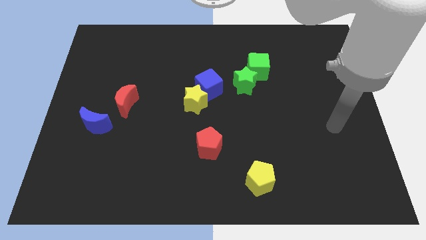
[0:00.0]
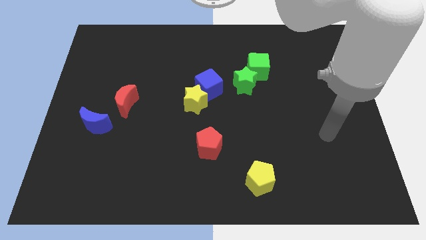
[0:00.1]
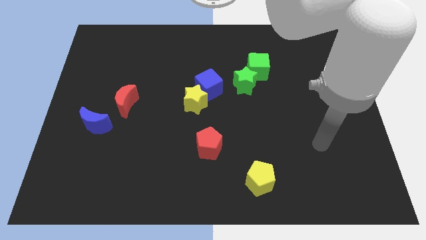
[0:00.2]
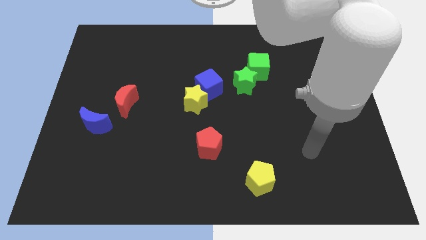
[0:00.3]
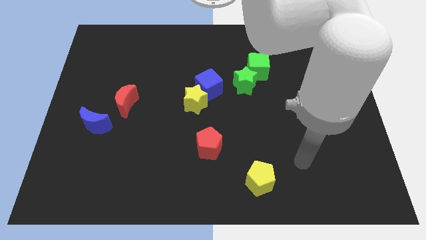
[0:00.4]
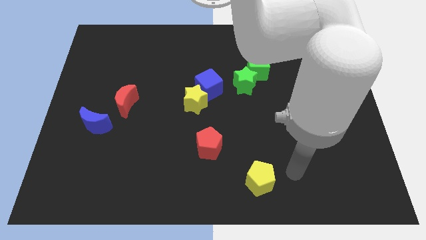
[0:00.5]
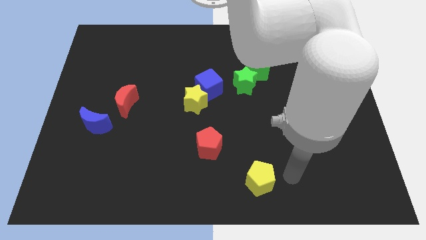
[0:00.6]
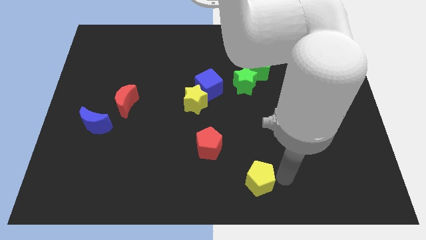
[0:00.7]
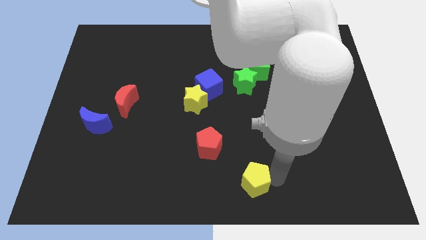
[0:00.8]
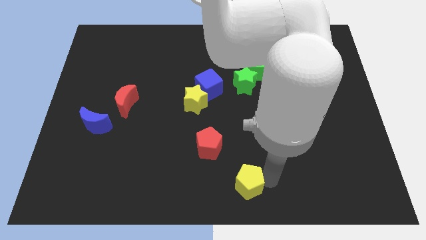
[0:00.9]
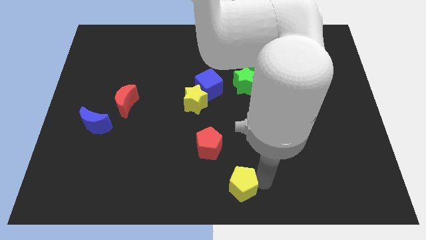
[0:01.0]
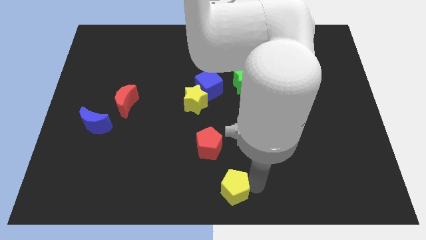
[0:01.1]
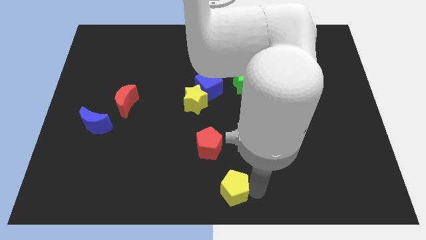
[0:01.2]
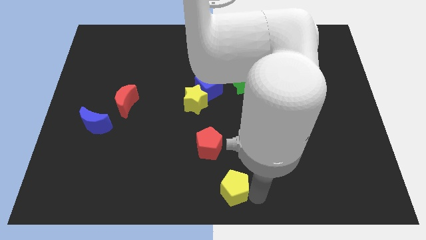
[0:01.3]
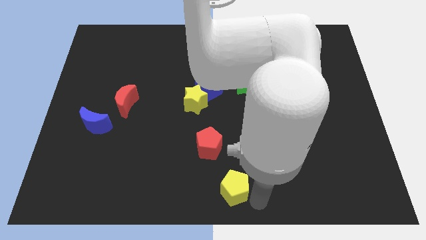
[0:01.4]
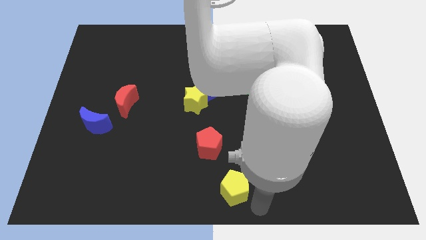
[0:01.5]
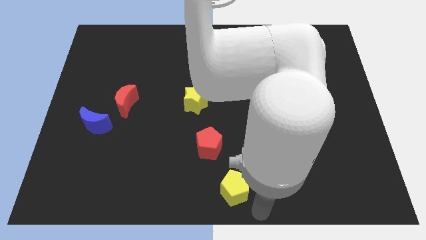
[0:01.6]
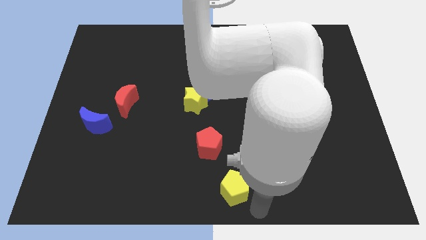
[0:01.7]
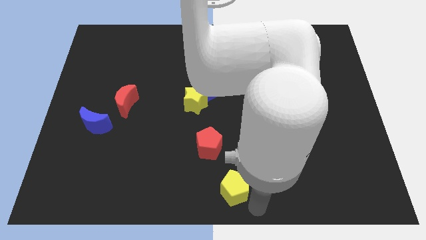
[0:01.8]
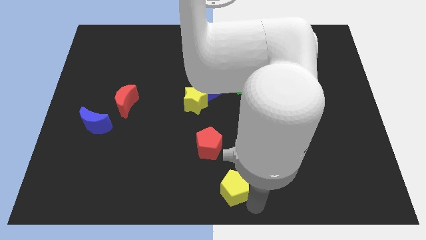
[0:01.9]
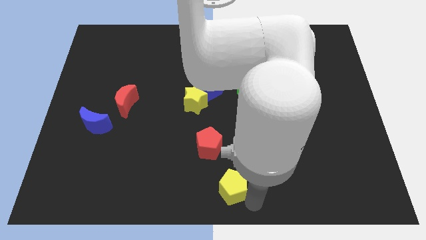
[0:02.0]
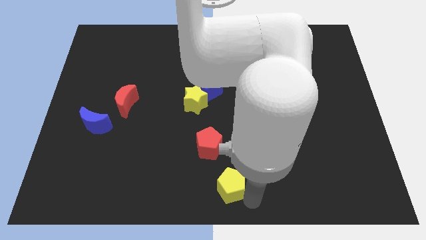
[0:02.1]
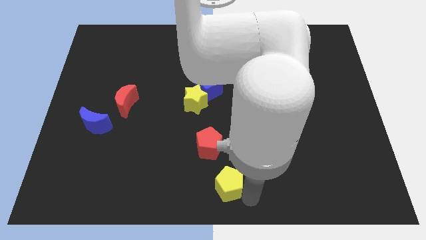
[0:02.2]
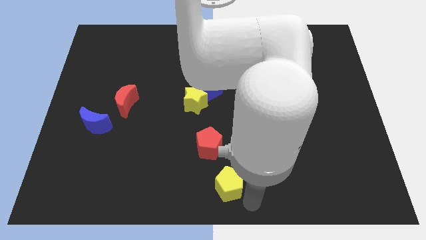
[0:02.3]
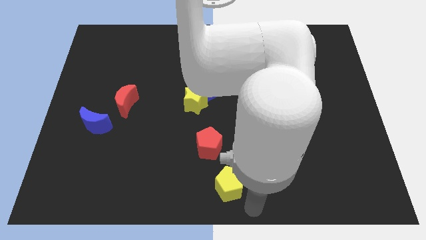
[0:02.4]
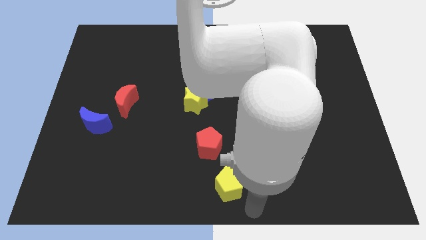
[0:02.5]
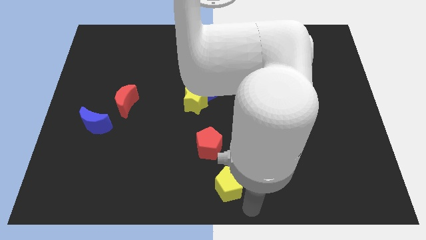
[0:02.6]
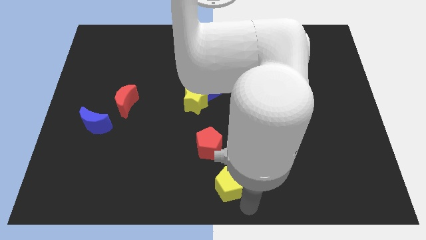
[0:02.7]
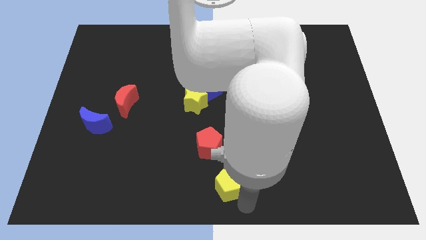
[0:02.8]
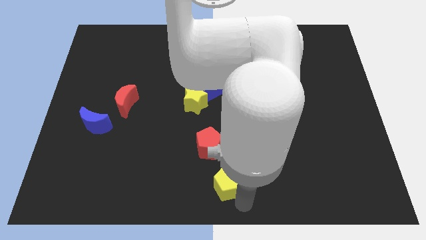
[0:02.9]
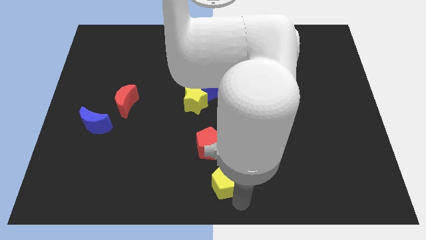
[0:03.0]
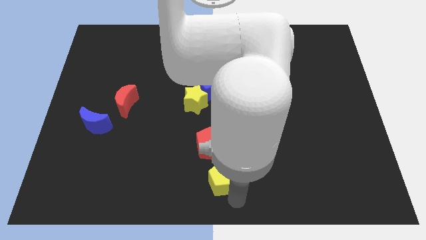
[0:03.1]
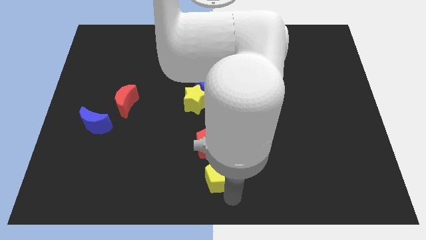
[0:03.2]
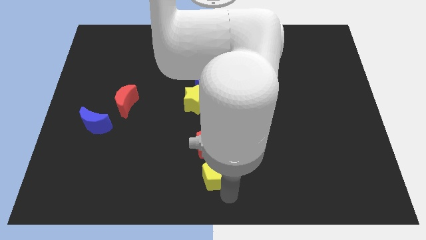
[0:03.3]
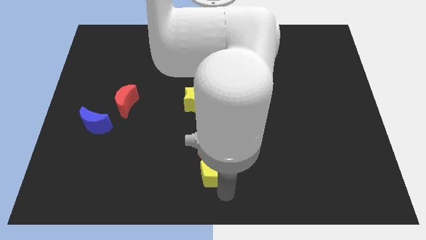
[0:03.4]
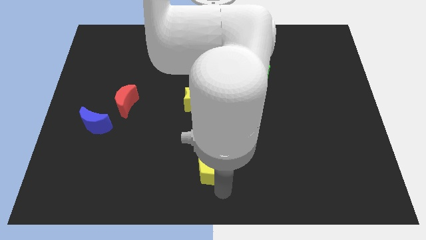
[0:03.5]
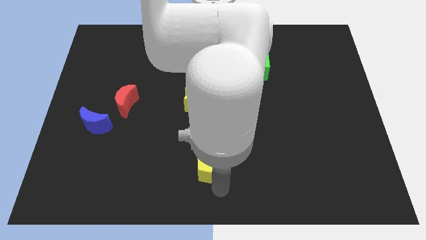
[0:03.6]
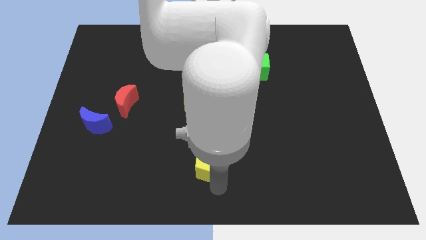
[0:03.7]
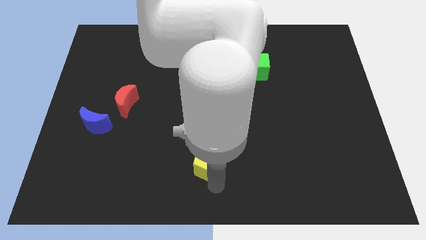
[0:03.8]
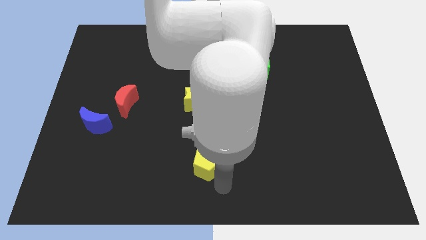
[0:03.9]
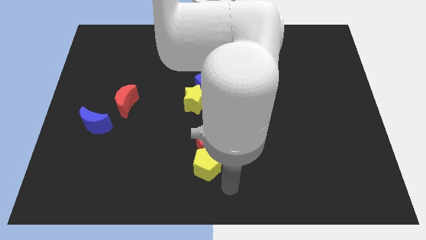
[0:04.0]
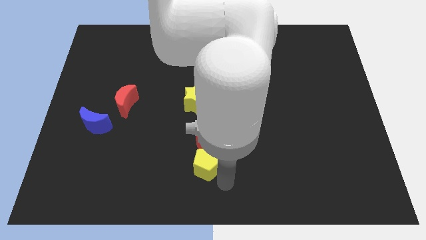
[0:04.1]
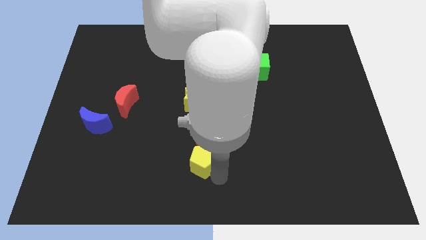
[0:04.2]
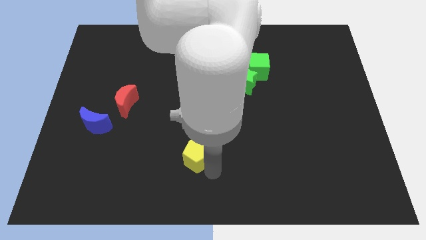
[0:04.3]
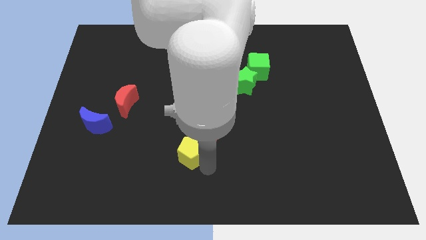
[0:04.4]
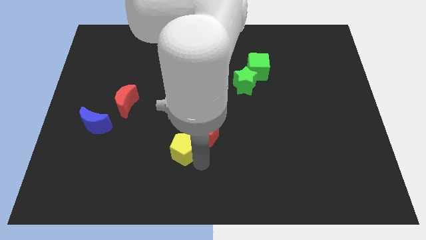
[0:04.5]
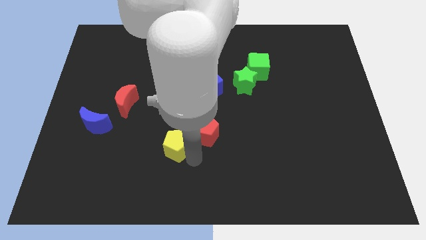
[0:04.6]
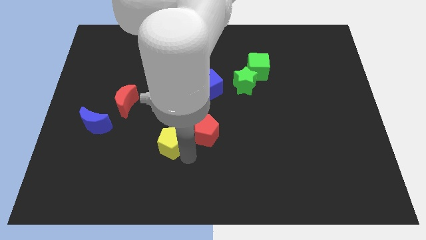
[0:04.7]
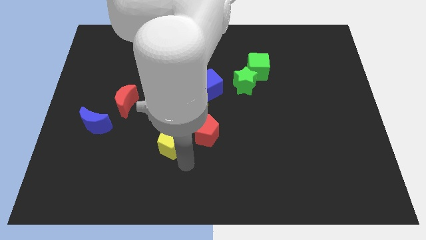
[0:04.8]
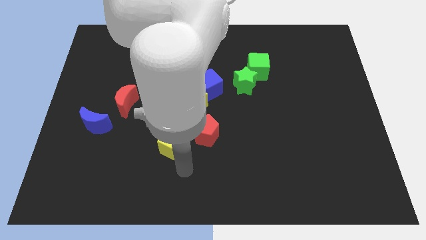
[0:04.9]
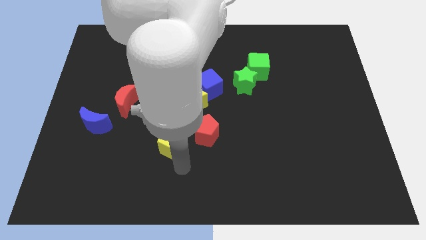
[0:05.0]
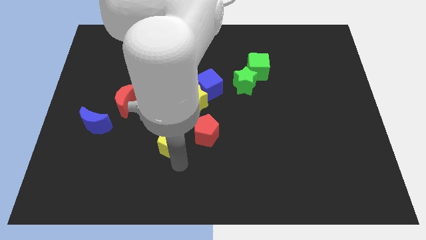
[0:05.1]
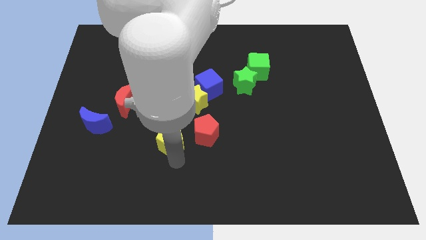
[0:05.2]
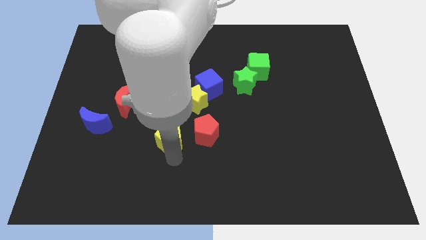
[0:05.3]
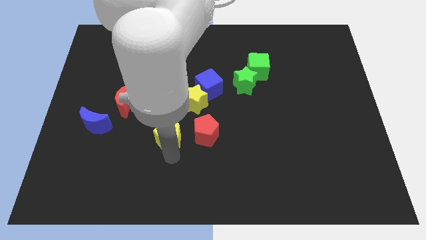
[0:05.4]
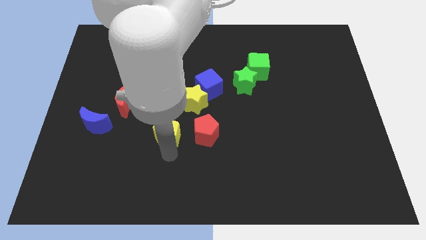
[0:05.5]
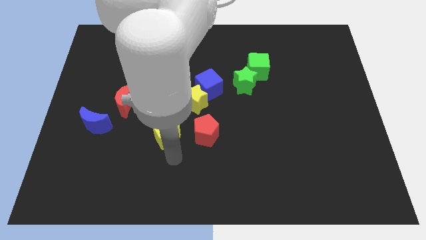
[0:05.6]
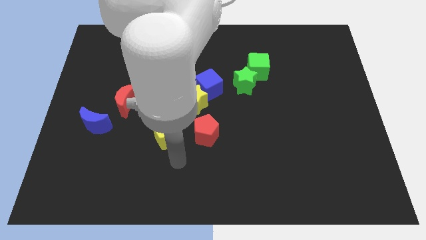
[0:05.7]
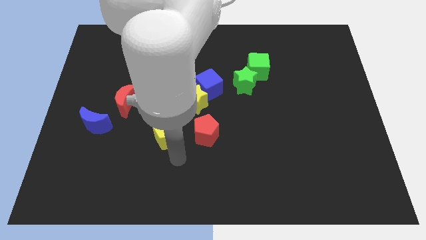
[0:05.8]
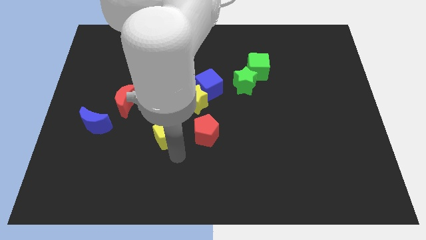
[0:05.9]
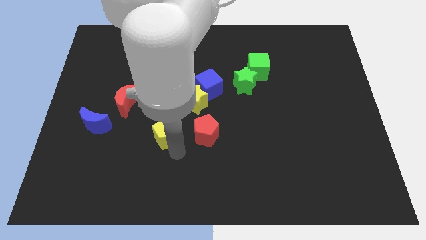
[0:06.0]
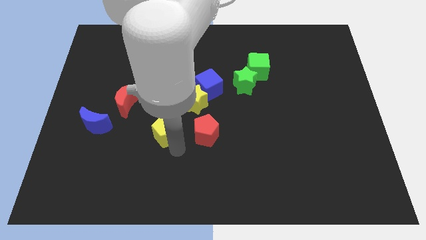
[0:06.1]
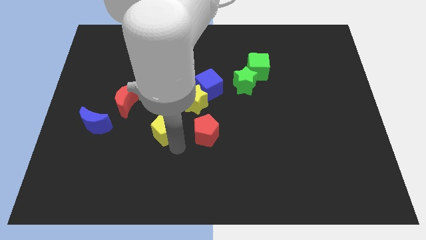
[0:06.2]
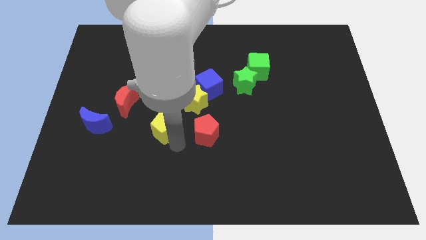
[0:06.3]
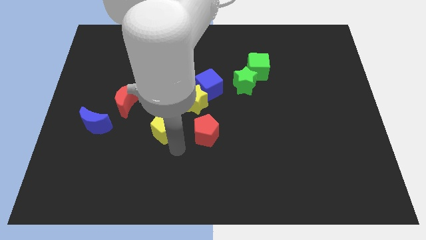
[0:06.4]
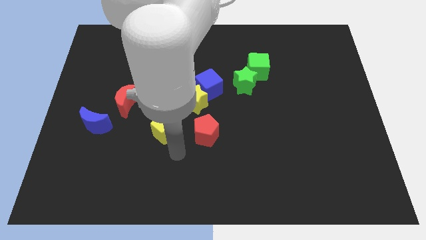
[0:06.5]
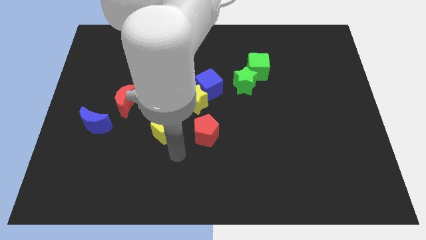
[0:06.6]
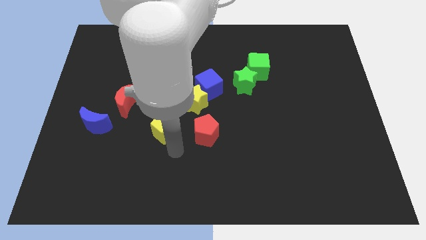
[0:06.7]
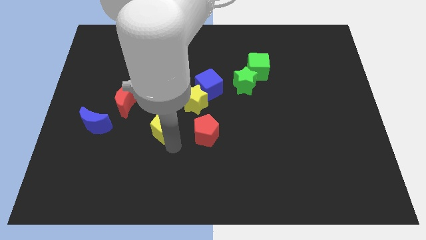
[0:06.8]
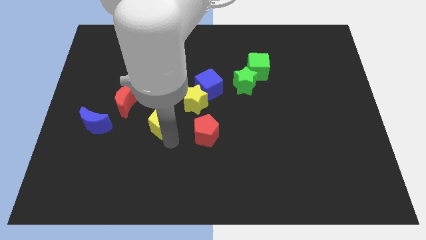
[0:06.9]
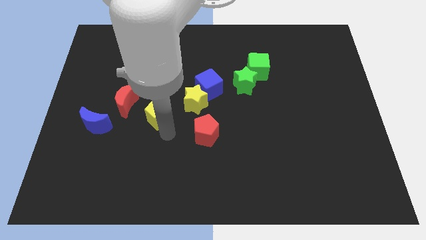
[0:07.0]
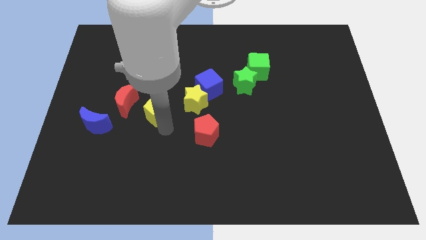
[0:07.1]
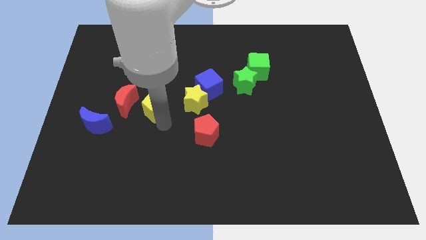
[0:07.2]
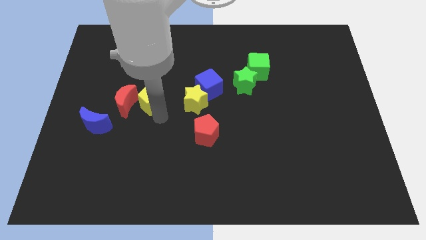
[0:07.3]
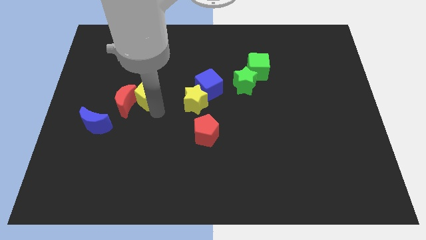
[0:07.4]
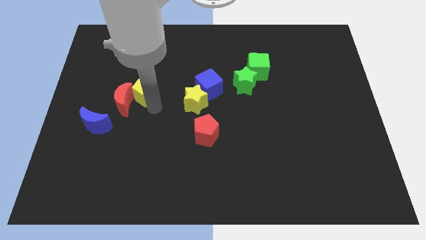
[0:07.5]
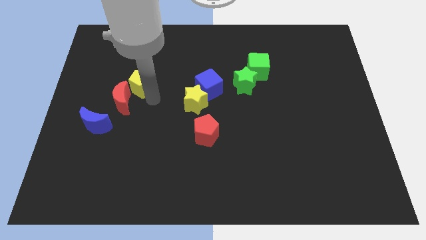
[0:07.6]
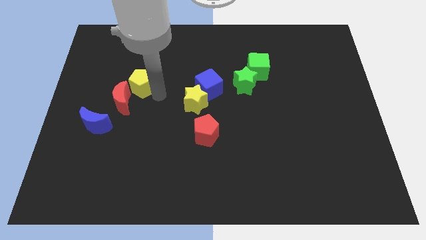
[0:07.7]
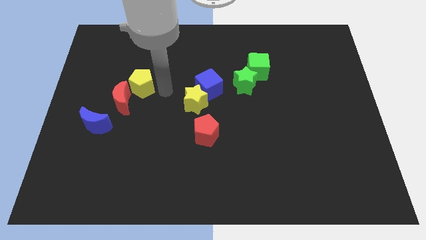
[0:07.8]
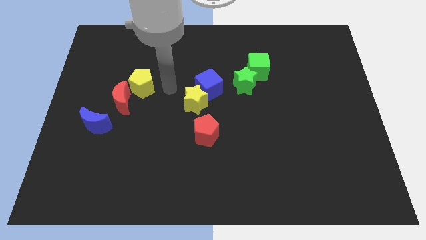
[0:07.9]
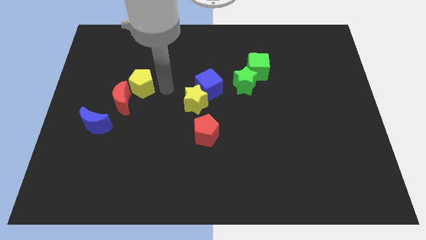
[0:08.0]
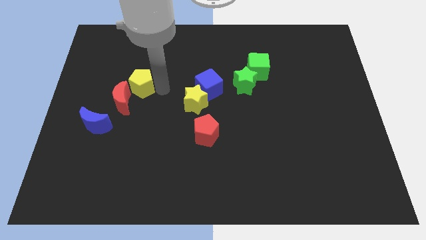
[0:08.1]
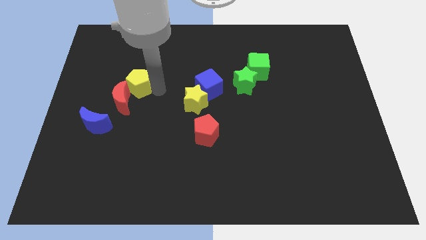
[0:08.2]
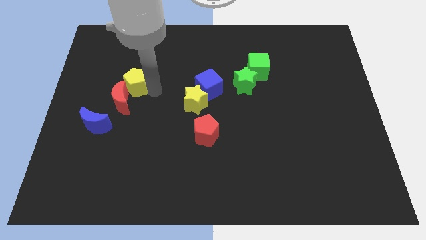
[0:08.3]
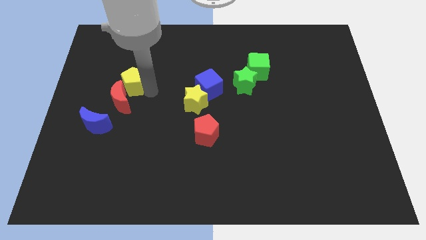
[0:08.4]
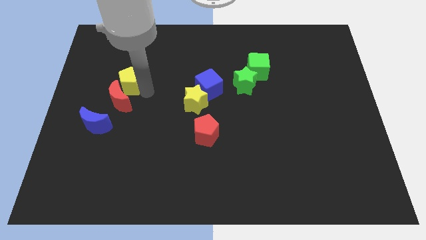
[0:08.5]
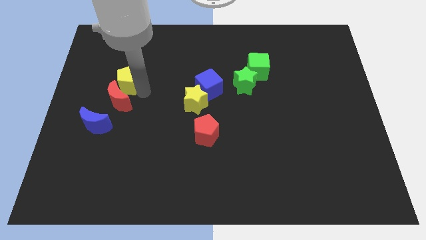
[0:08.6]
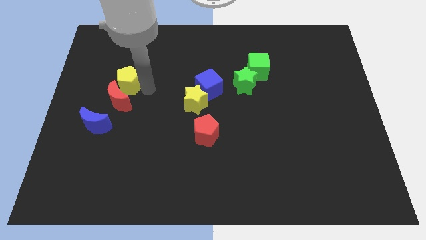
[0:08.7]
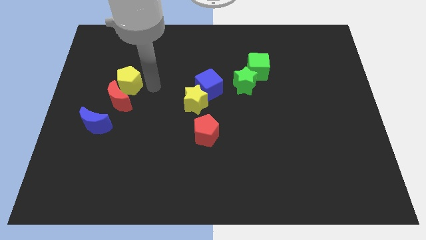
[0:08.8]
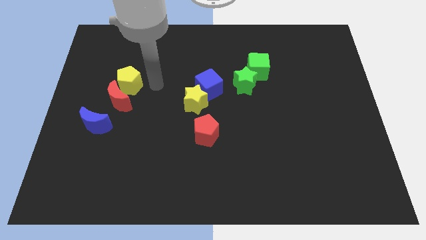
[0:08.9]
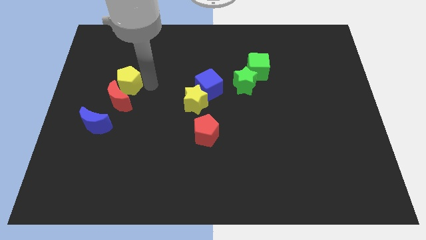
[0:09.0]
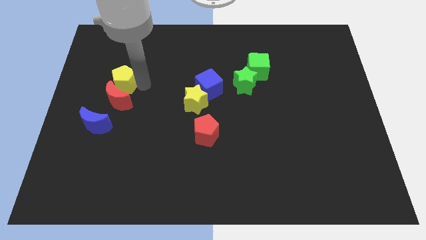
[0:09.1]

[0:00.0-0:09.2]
push the yellow pentagon diagonally up and to the left of the red moon
